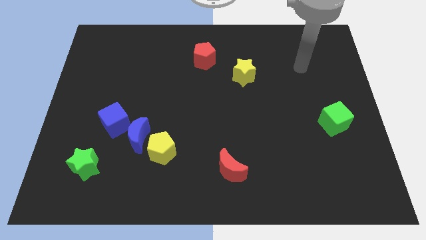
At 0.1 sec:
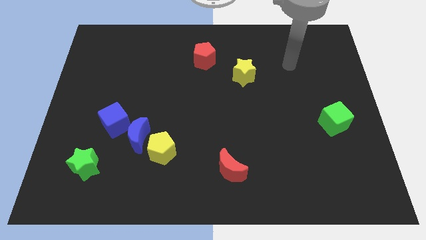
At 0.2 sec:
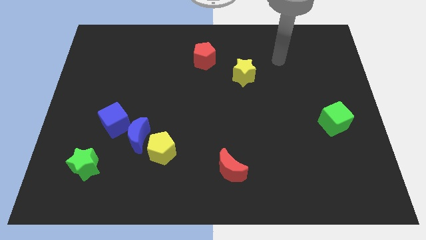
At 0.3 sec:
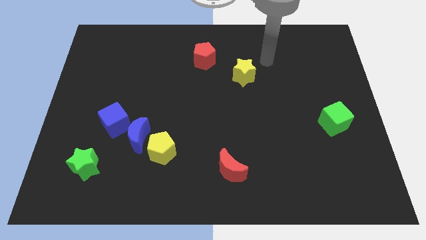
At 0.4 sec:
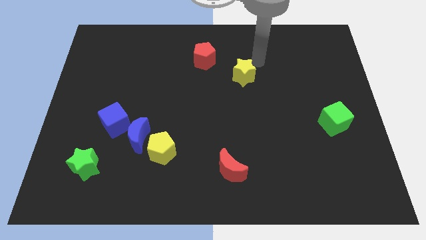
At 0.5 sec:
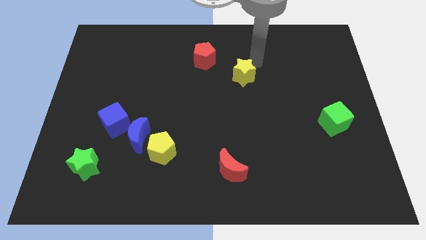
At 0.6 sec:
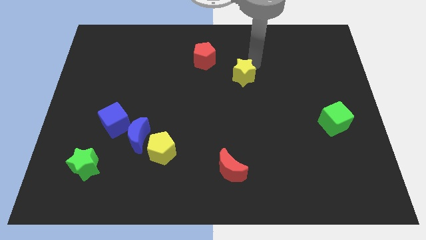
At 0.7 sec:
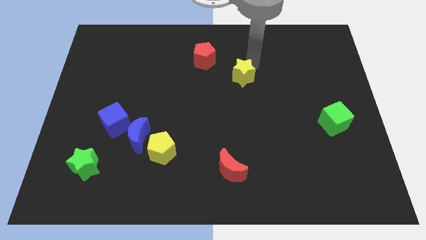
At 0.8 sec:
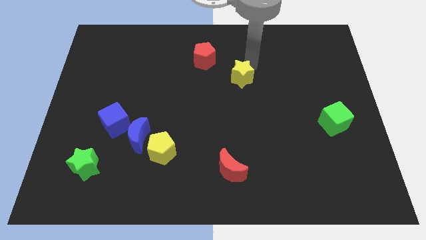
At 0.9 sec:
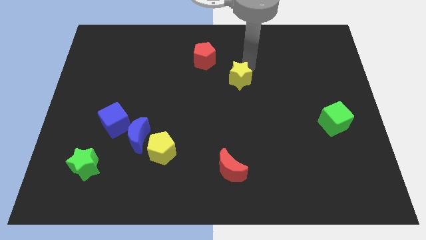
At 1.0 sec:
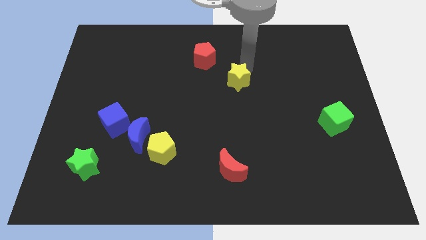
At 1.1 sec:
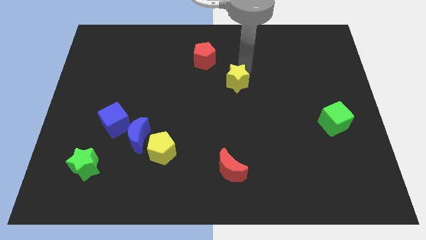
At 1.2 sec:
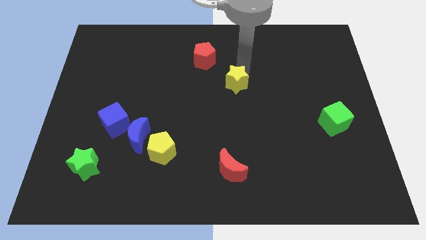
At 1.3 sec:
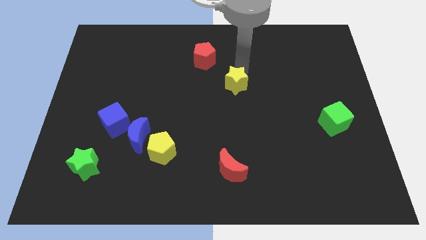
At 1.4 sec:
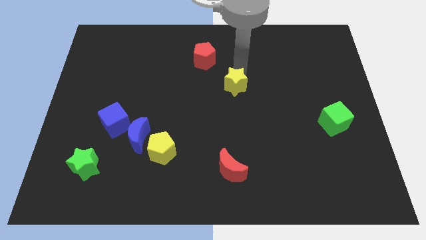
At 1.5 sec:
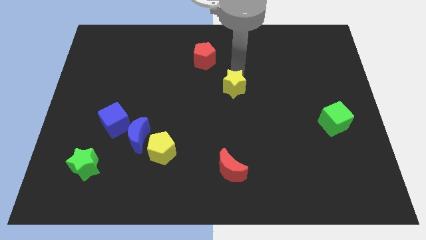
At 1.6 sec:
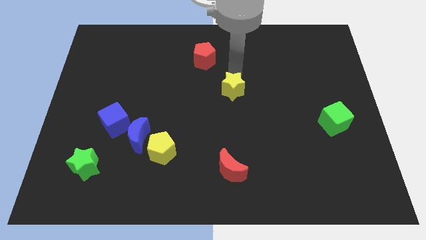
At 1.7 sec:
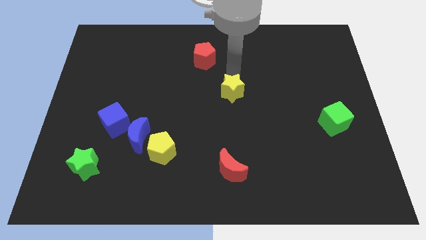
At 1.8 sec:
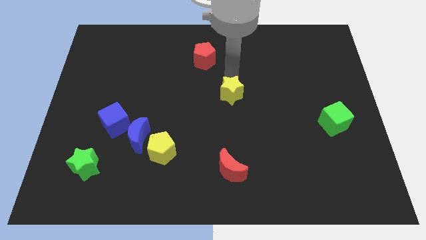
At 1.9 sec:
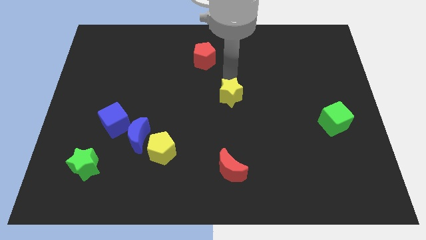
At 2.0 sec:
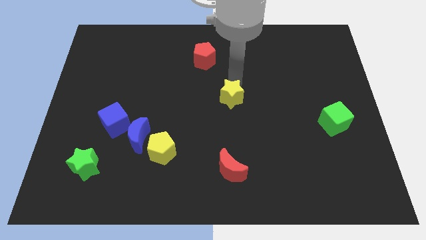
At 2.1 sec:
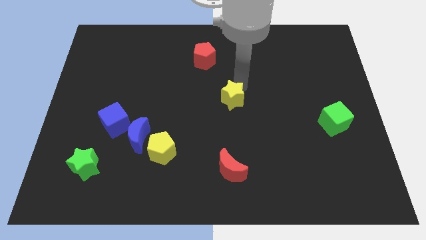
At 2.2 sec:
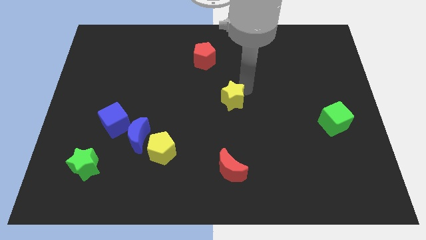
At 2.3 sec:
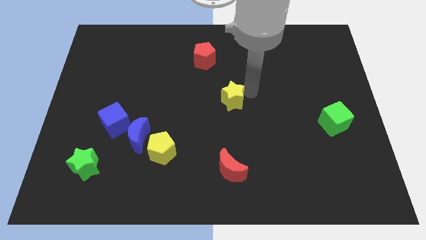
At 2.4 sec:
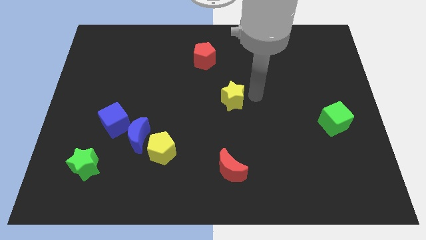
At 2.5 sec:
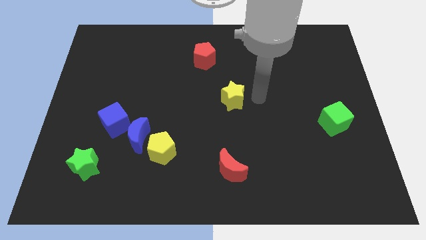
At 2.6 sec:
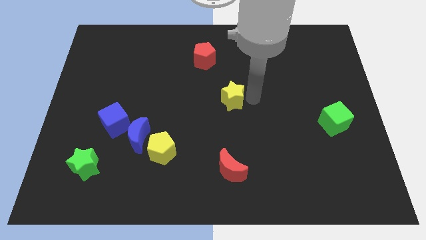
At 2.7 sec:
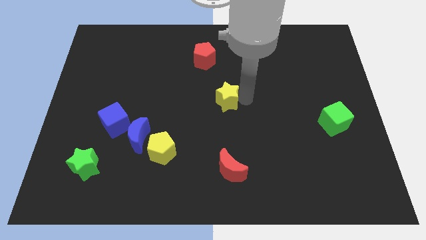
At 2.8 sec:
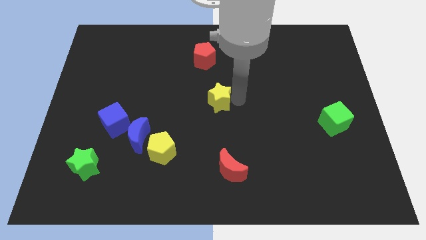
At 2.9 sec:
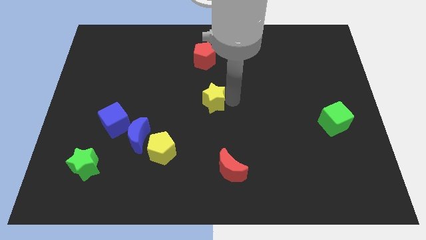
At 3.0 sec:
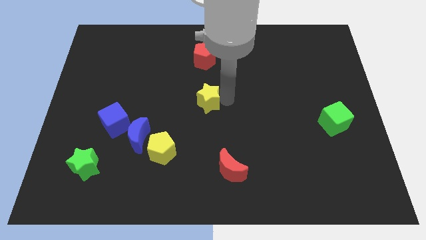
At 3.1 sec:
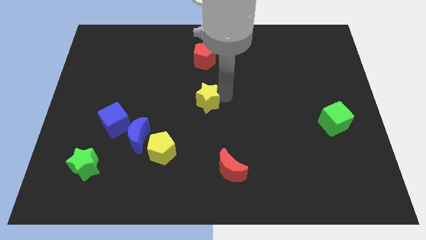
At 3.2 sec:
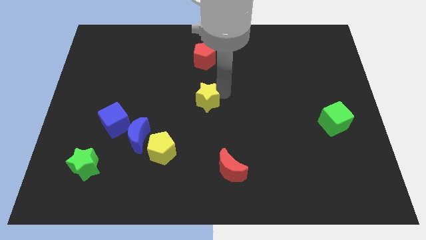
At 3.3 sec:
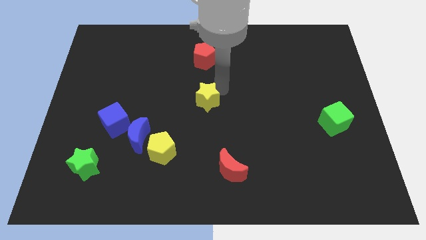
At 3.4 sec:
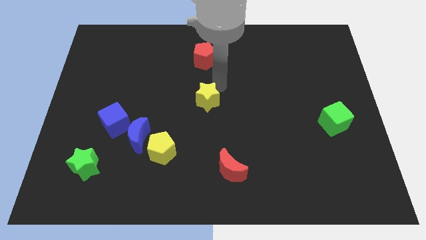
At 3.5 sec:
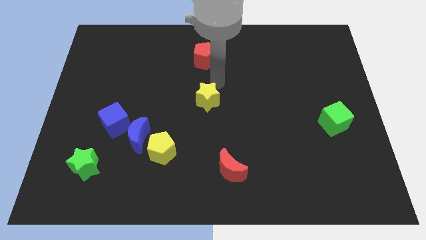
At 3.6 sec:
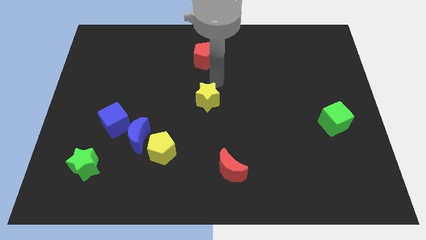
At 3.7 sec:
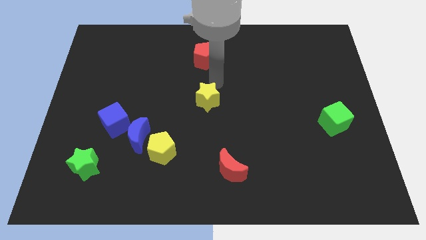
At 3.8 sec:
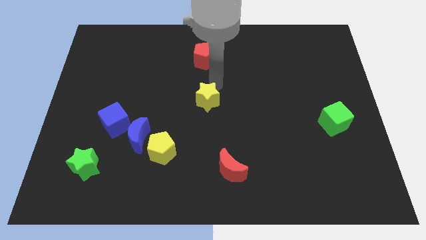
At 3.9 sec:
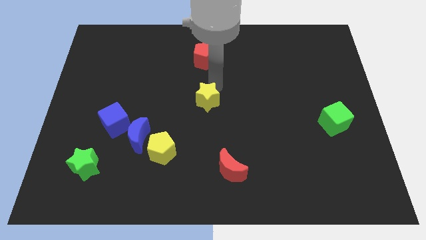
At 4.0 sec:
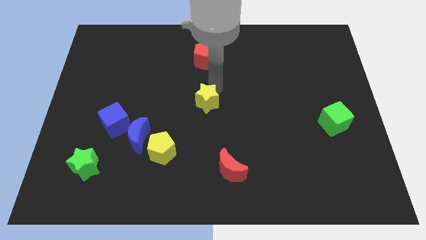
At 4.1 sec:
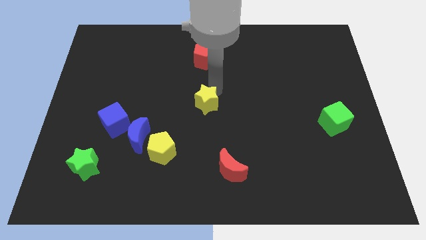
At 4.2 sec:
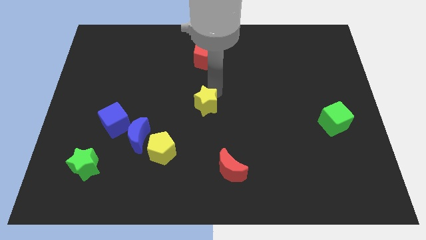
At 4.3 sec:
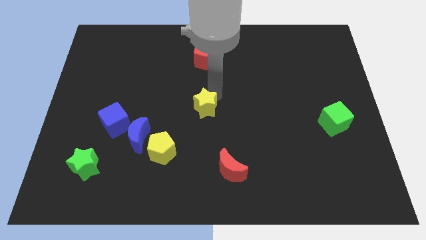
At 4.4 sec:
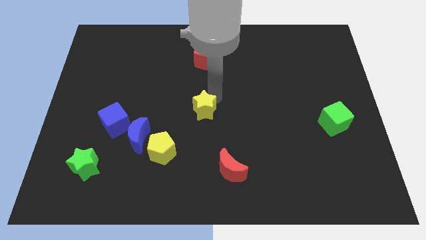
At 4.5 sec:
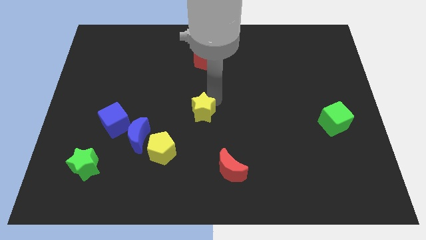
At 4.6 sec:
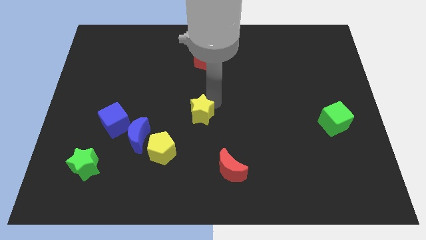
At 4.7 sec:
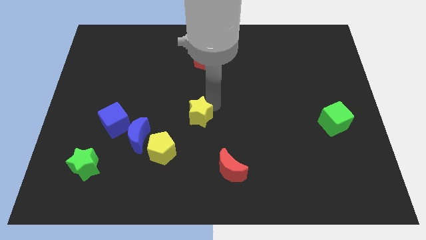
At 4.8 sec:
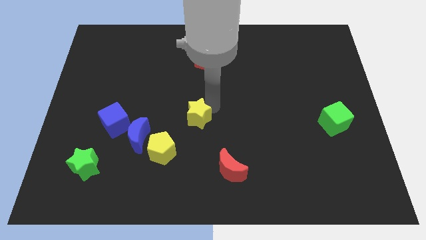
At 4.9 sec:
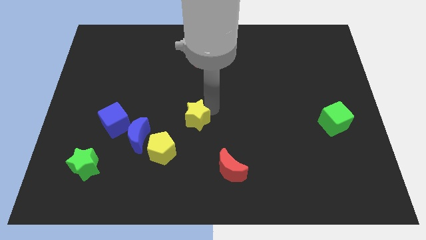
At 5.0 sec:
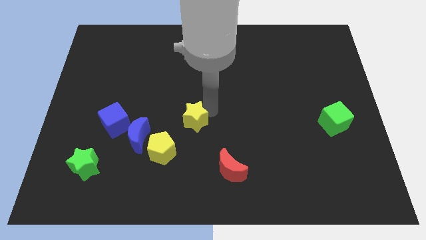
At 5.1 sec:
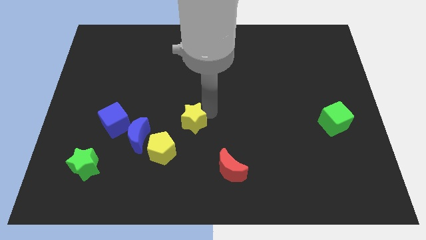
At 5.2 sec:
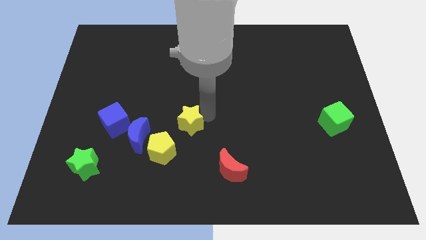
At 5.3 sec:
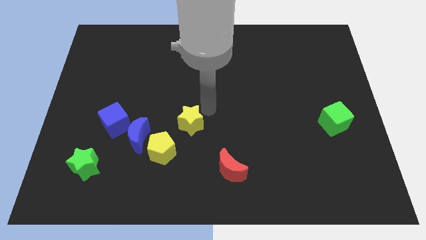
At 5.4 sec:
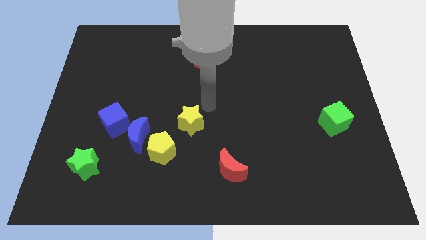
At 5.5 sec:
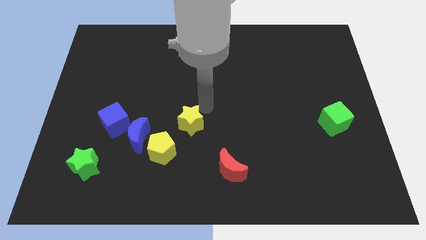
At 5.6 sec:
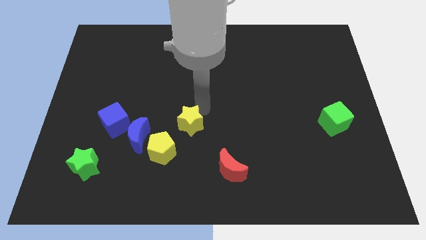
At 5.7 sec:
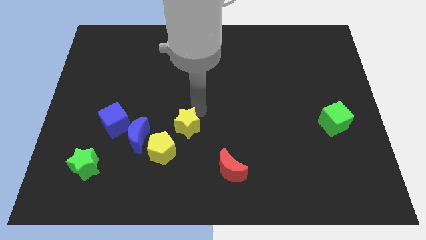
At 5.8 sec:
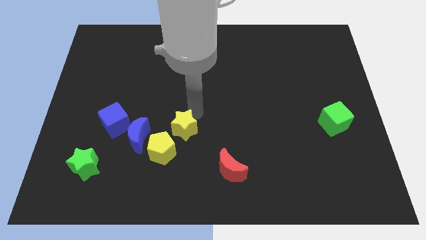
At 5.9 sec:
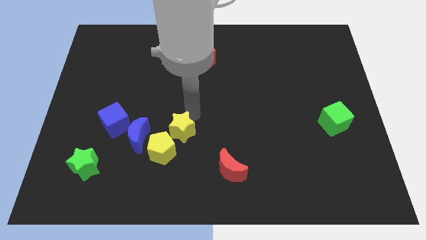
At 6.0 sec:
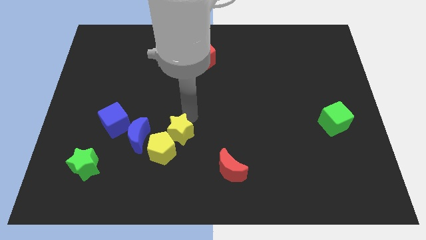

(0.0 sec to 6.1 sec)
push the yellow star to the yellow pentagon

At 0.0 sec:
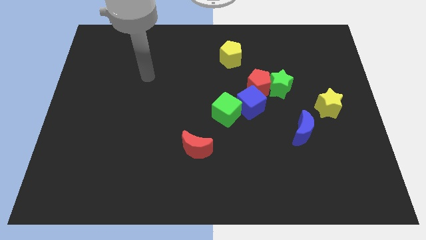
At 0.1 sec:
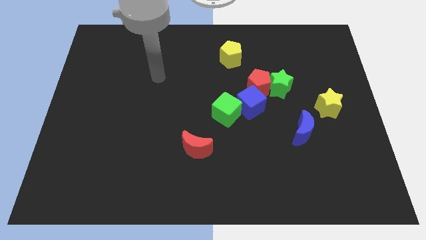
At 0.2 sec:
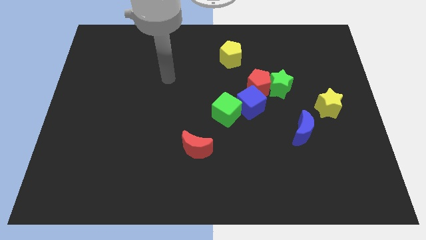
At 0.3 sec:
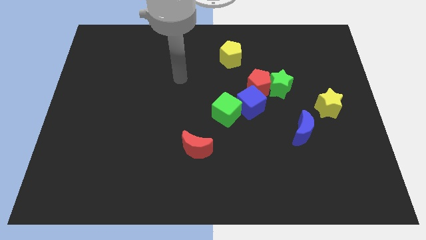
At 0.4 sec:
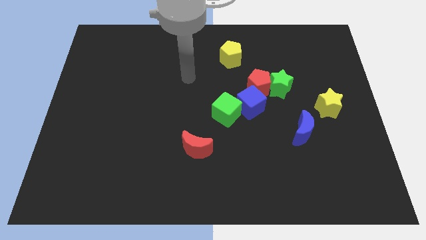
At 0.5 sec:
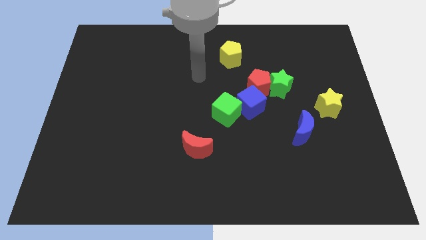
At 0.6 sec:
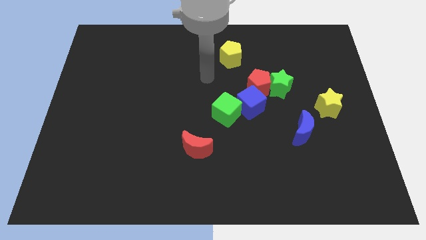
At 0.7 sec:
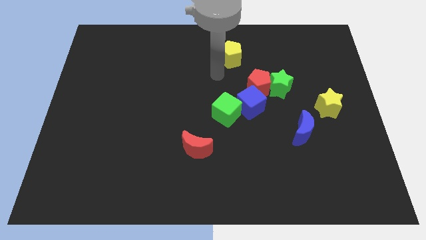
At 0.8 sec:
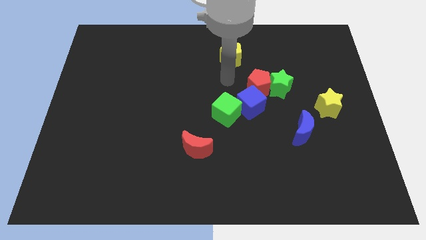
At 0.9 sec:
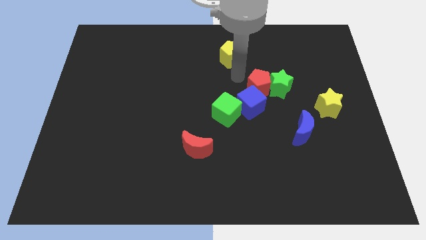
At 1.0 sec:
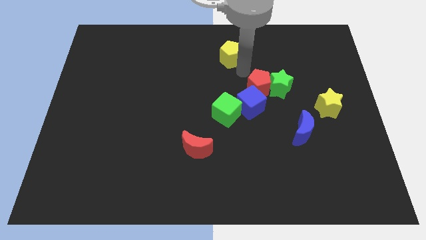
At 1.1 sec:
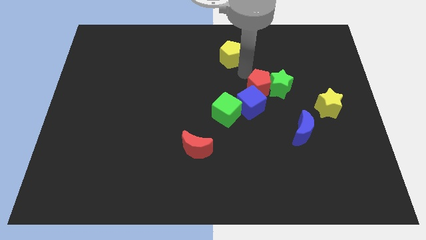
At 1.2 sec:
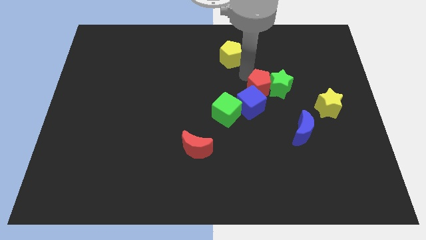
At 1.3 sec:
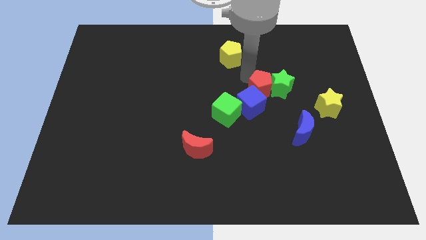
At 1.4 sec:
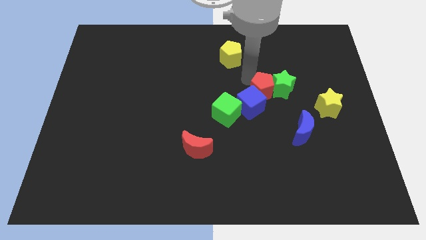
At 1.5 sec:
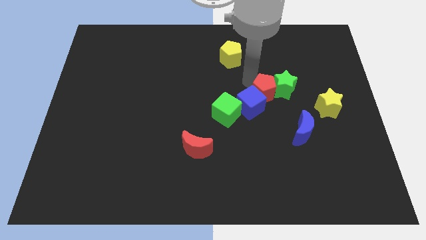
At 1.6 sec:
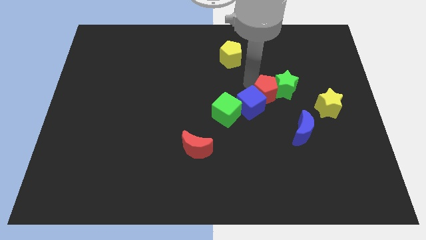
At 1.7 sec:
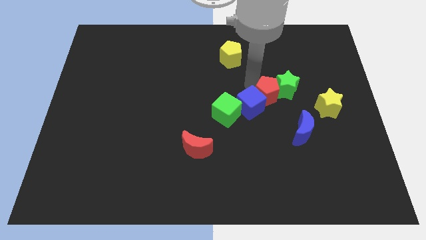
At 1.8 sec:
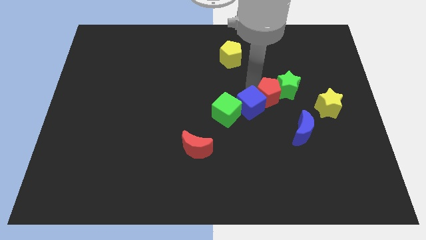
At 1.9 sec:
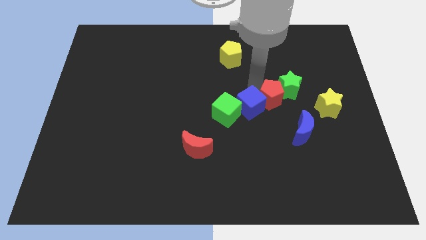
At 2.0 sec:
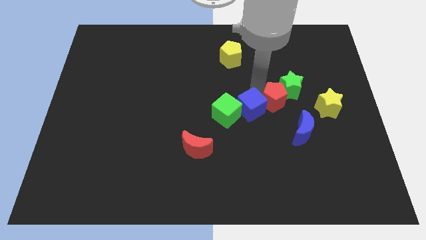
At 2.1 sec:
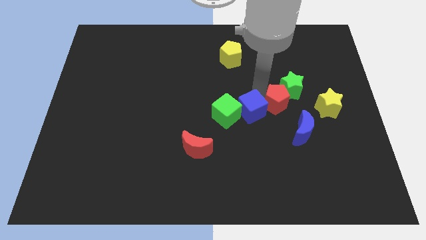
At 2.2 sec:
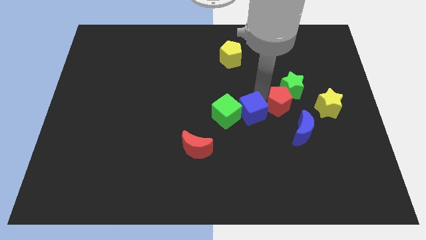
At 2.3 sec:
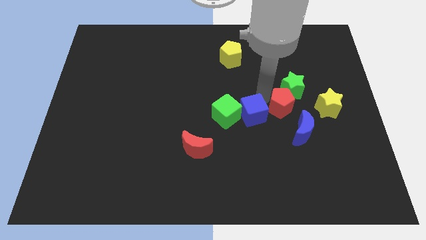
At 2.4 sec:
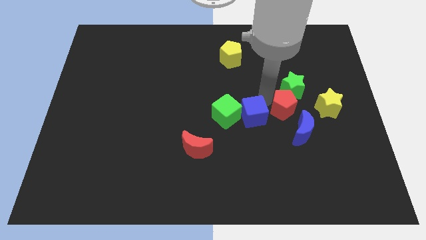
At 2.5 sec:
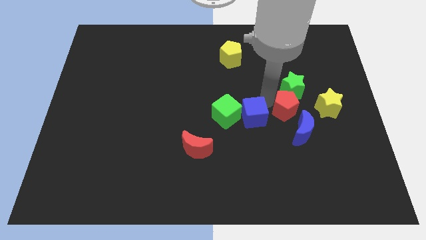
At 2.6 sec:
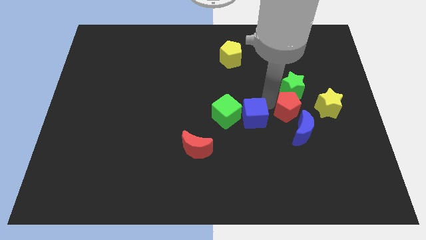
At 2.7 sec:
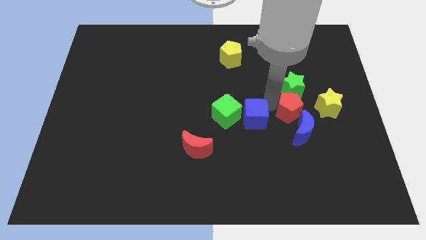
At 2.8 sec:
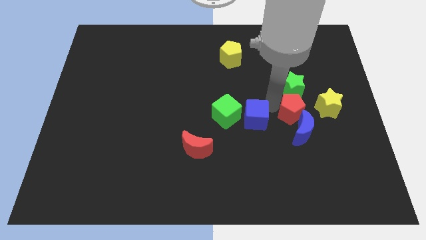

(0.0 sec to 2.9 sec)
push the red pentagon close to the blue moon
